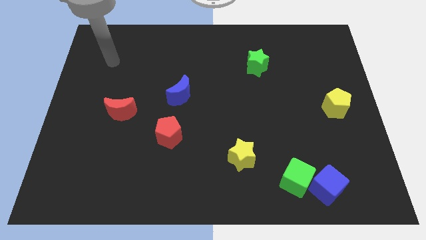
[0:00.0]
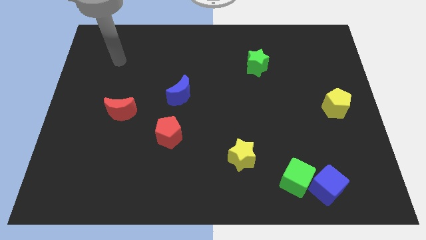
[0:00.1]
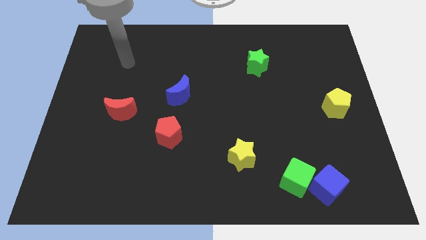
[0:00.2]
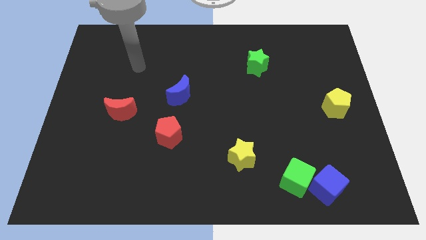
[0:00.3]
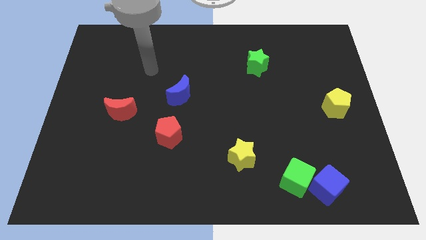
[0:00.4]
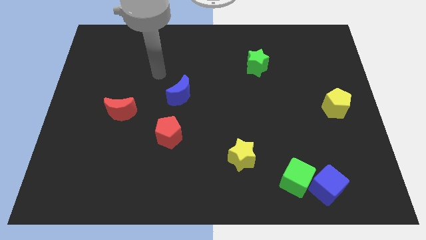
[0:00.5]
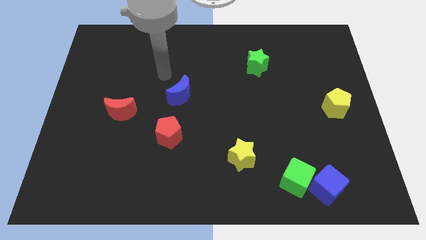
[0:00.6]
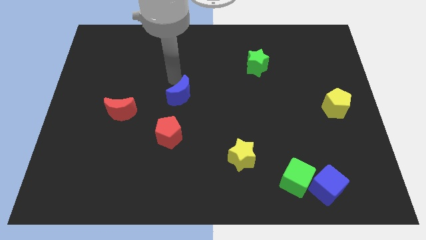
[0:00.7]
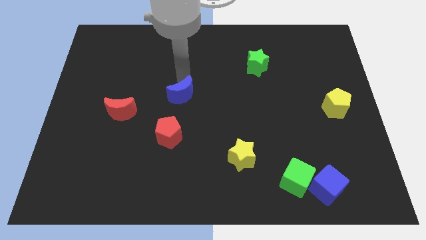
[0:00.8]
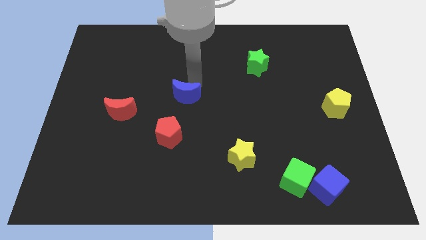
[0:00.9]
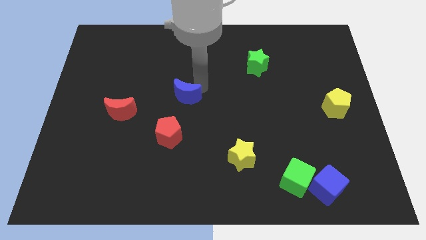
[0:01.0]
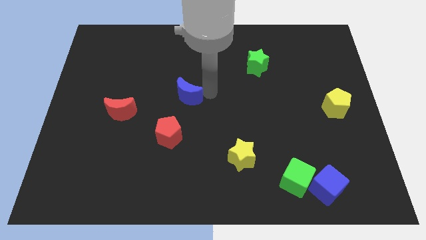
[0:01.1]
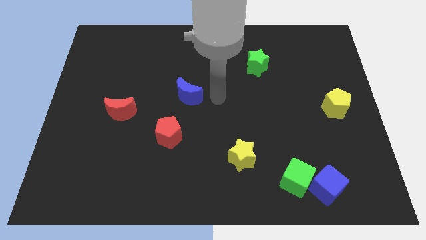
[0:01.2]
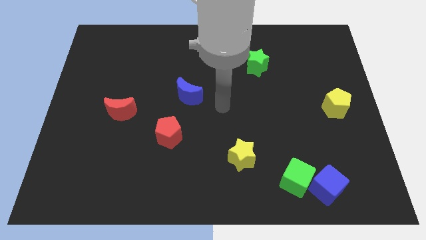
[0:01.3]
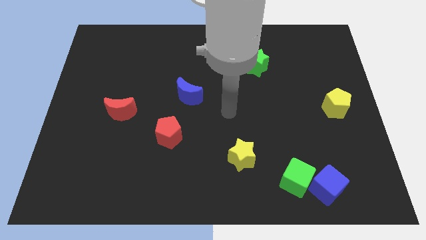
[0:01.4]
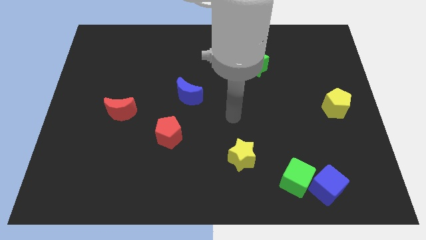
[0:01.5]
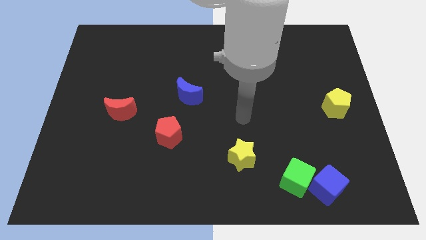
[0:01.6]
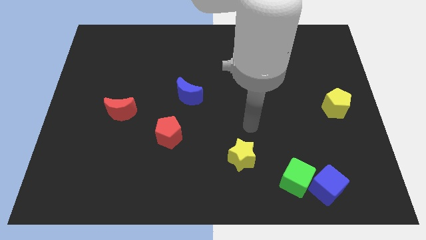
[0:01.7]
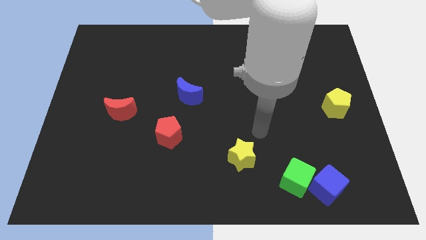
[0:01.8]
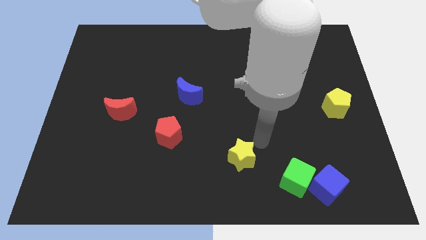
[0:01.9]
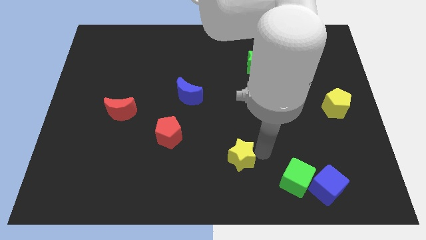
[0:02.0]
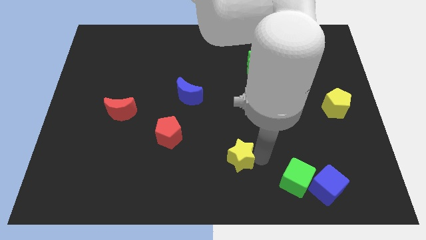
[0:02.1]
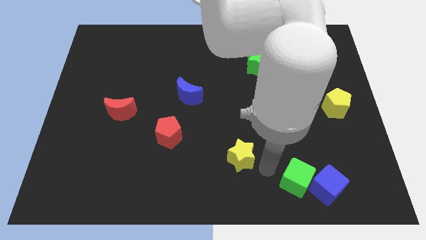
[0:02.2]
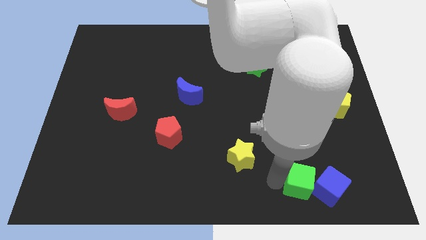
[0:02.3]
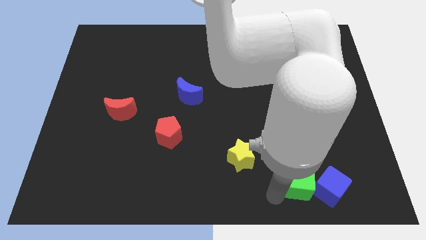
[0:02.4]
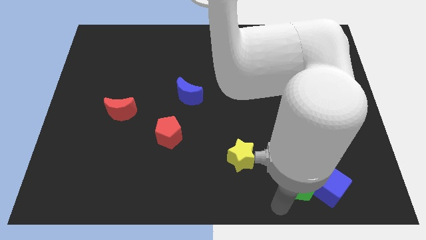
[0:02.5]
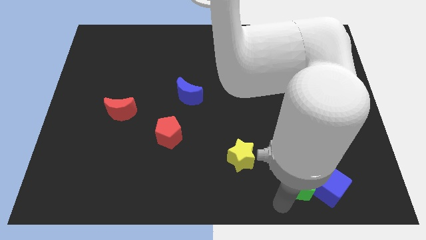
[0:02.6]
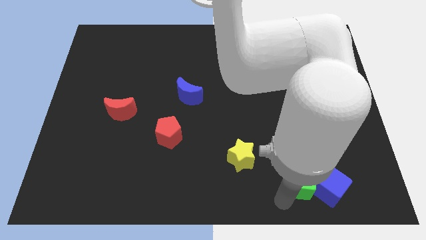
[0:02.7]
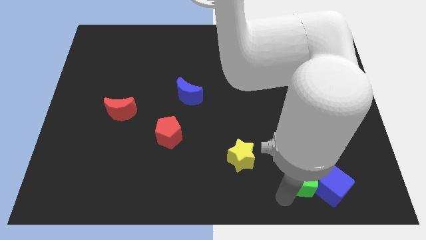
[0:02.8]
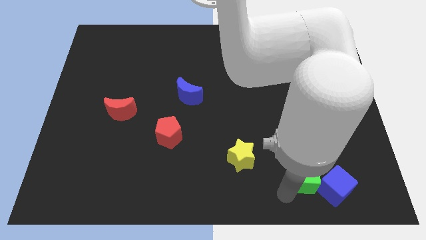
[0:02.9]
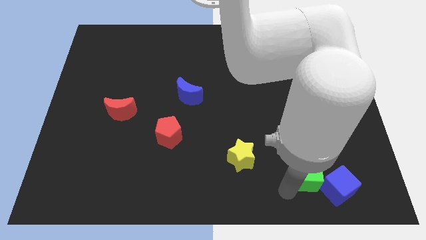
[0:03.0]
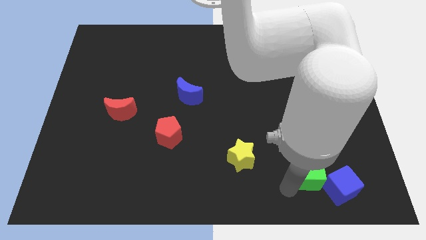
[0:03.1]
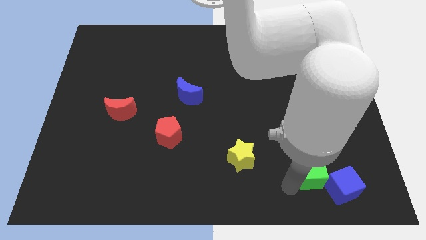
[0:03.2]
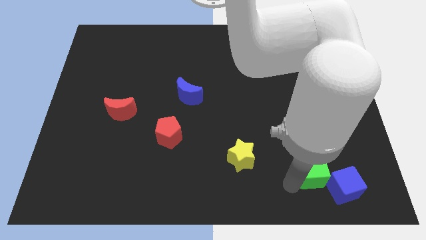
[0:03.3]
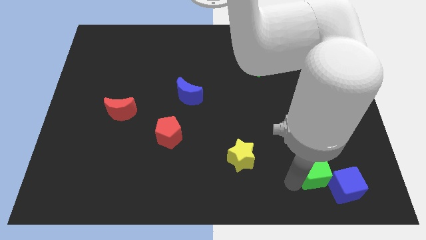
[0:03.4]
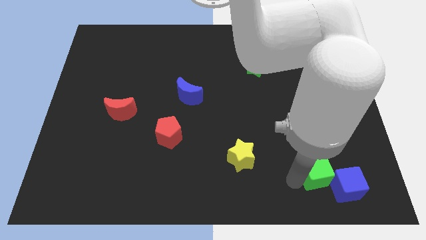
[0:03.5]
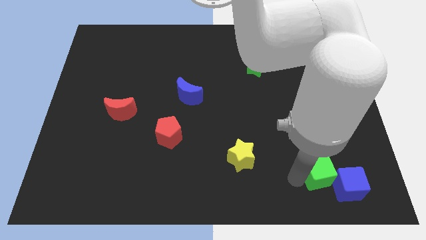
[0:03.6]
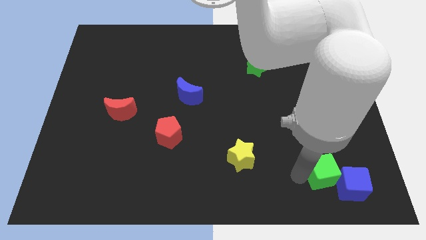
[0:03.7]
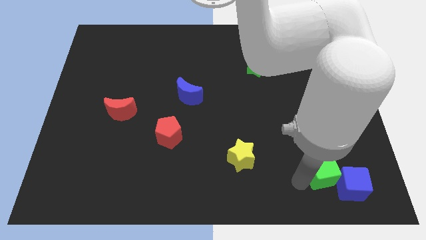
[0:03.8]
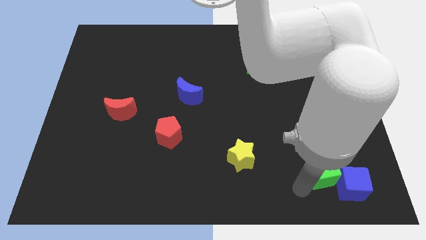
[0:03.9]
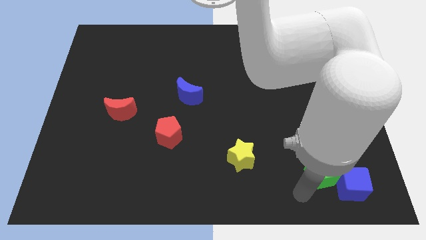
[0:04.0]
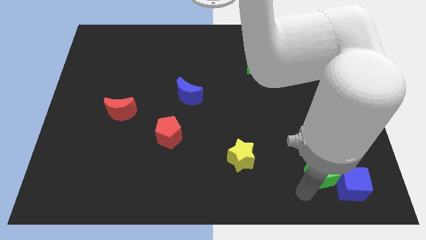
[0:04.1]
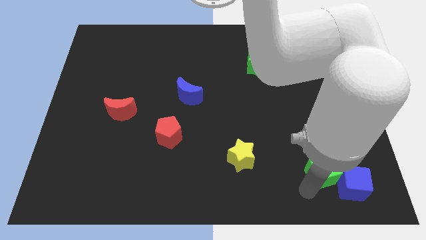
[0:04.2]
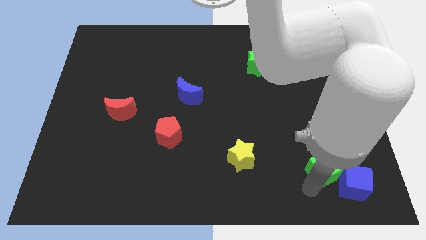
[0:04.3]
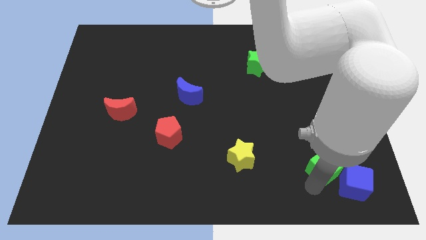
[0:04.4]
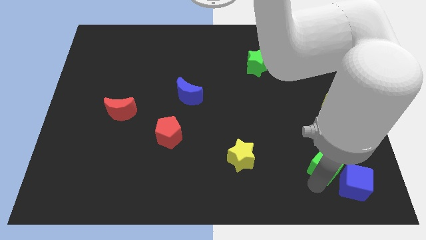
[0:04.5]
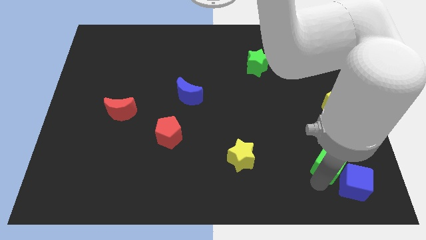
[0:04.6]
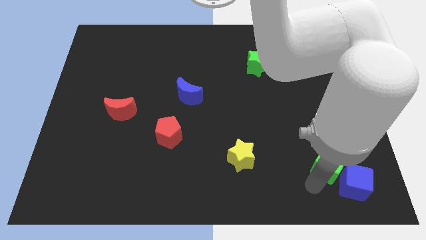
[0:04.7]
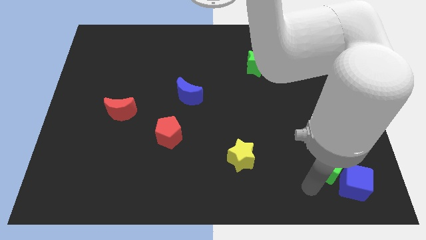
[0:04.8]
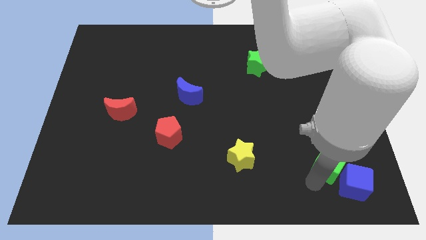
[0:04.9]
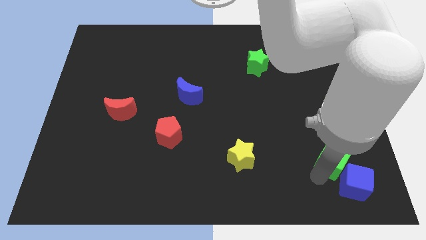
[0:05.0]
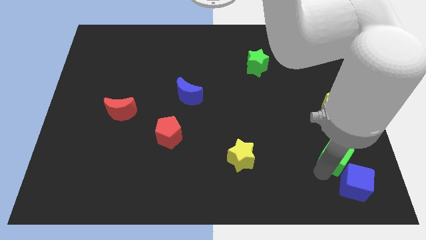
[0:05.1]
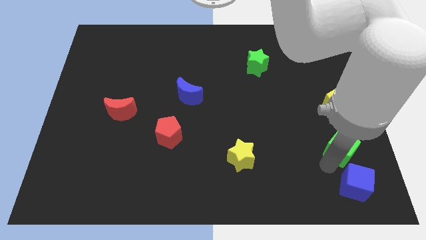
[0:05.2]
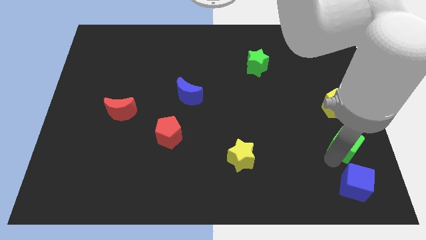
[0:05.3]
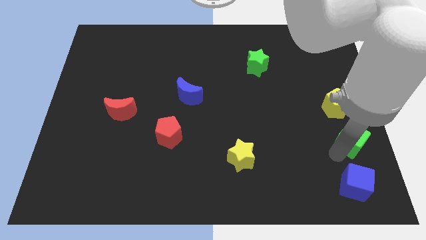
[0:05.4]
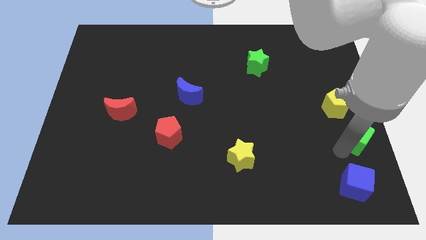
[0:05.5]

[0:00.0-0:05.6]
slide the green cube to the right side

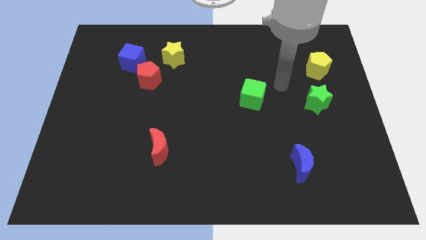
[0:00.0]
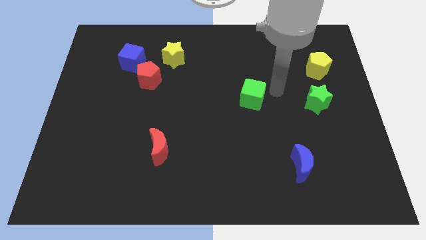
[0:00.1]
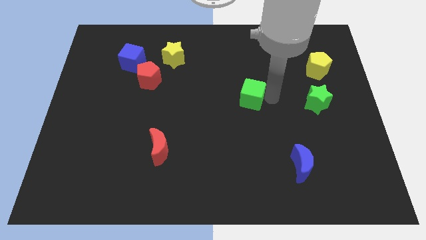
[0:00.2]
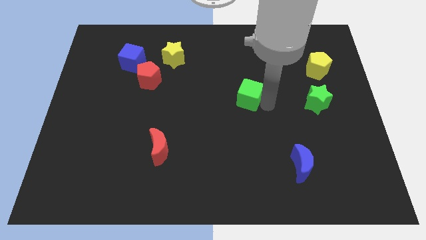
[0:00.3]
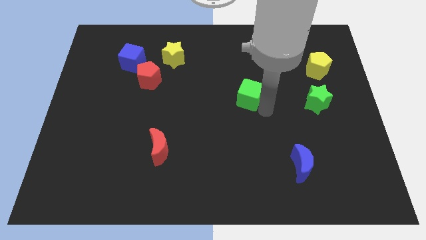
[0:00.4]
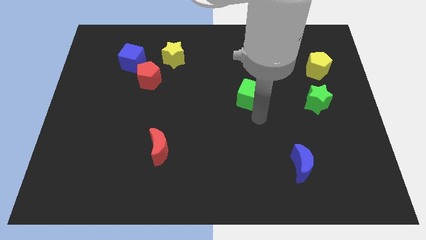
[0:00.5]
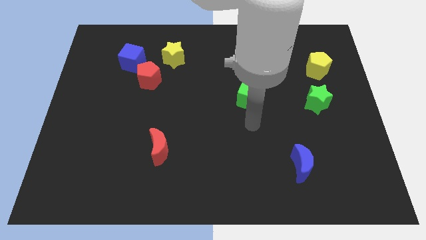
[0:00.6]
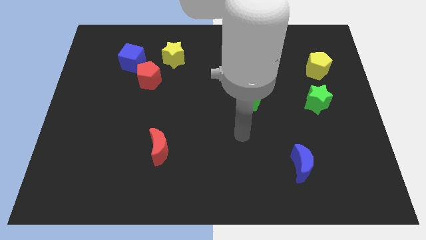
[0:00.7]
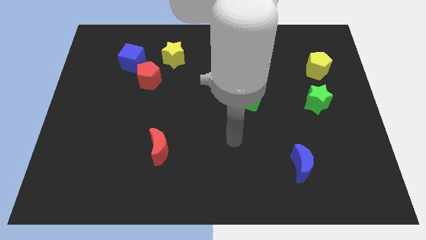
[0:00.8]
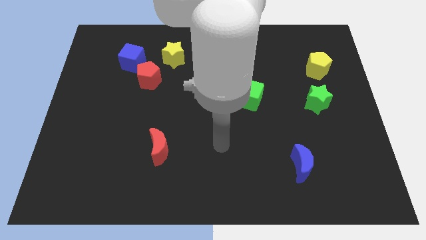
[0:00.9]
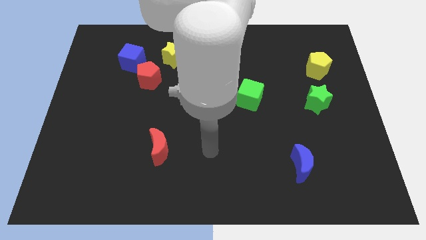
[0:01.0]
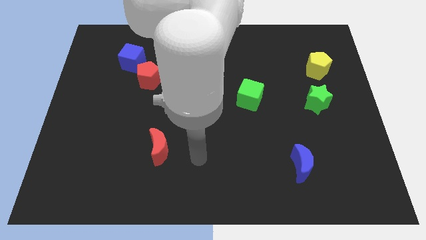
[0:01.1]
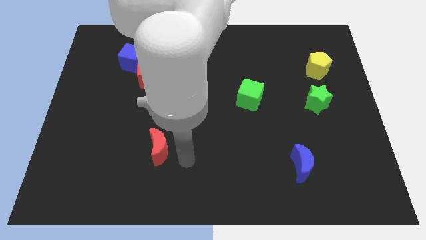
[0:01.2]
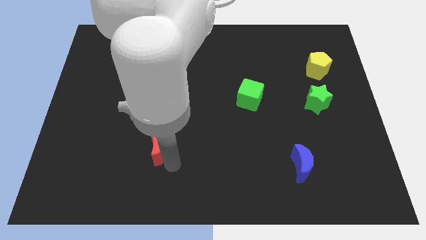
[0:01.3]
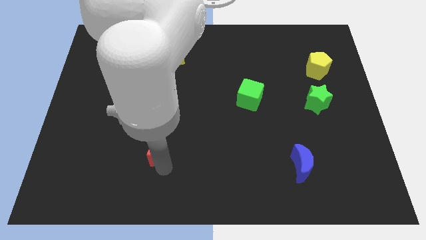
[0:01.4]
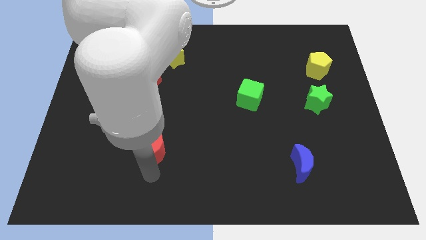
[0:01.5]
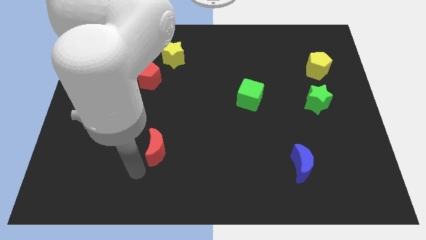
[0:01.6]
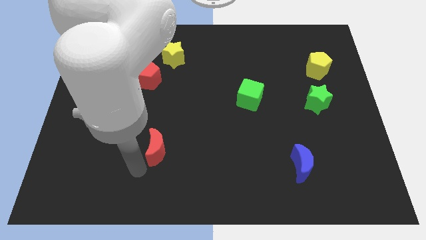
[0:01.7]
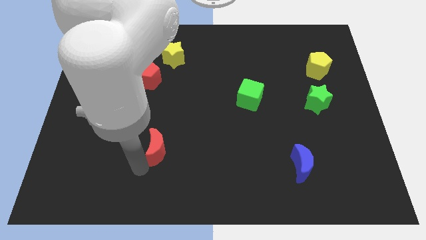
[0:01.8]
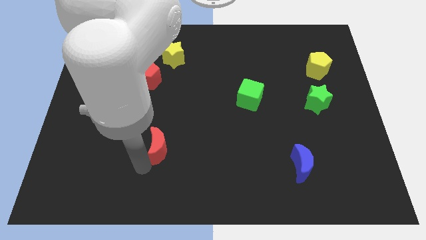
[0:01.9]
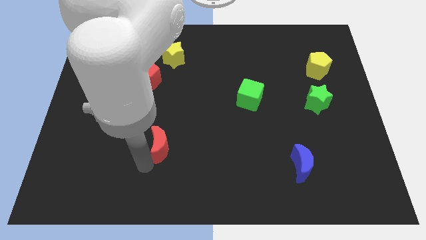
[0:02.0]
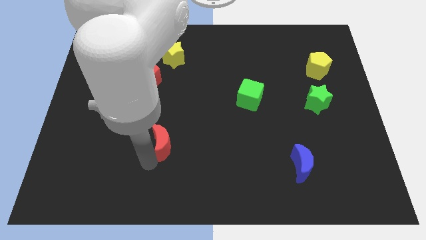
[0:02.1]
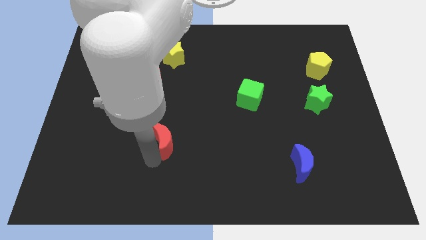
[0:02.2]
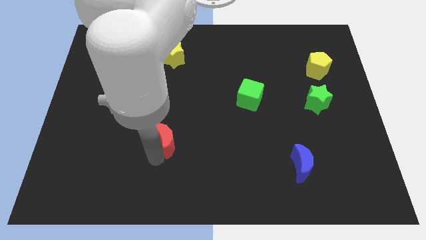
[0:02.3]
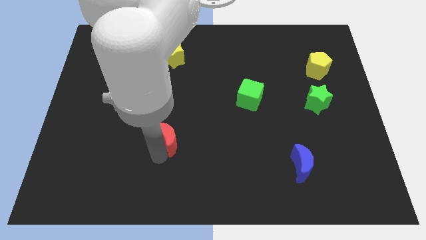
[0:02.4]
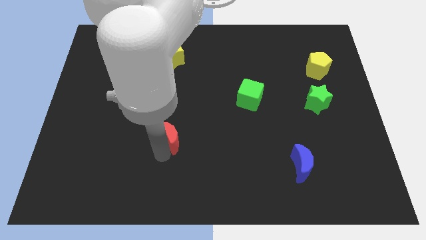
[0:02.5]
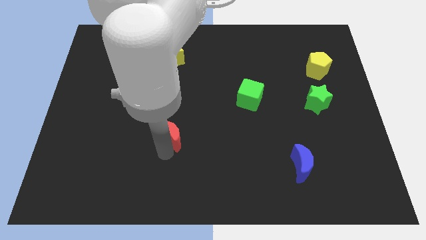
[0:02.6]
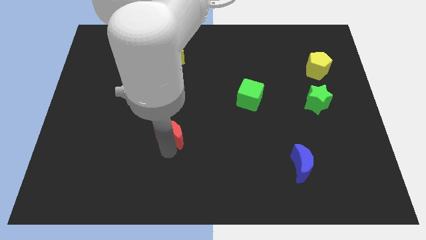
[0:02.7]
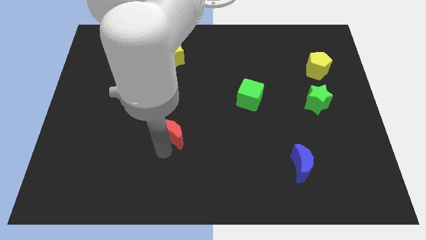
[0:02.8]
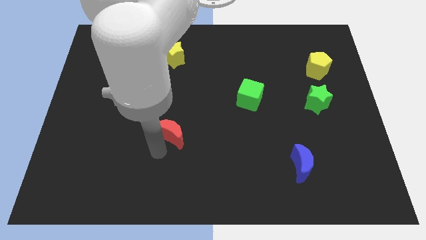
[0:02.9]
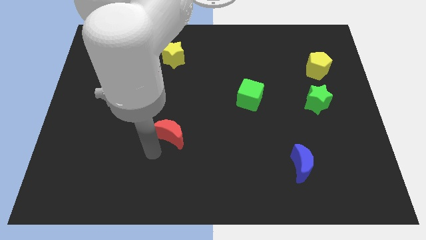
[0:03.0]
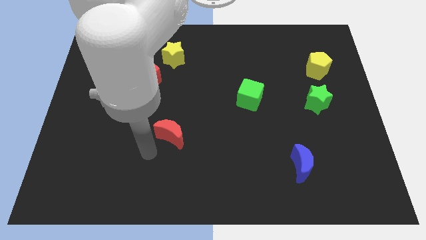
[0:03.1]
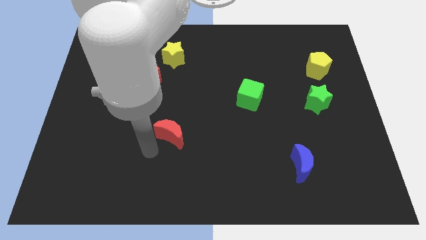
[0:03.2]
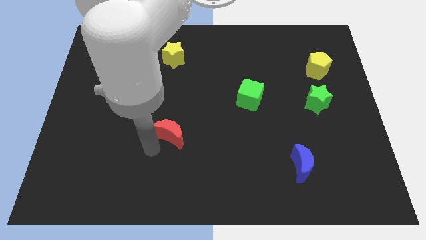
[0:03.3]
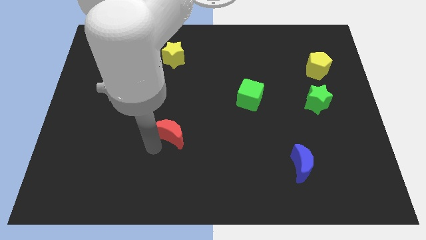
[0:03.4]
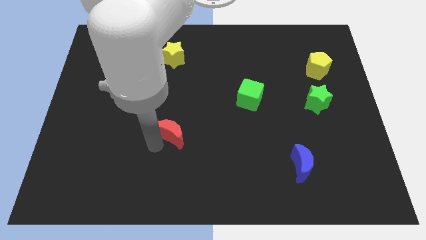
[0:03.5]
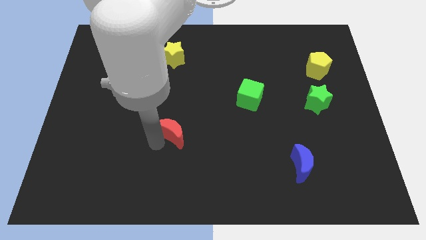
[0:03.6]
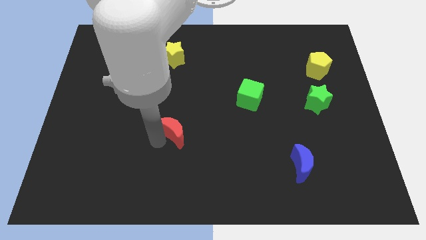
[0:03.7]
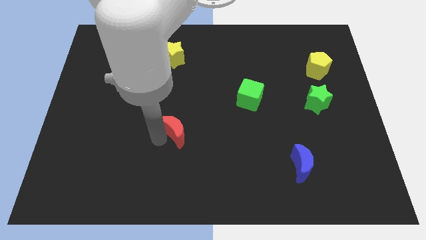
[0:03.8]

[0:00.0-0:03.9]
put the red moon to the center
